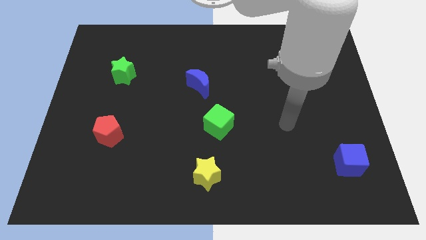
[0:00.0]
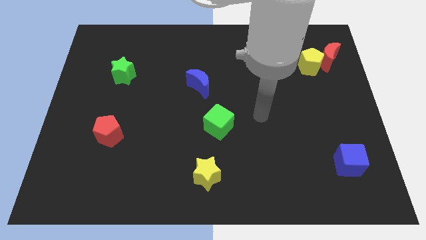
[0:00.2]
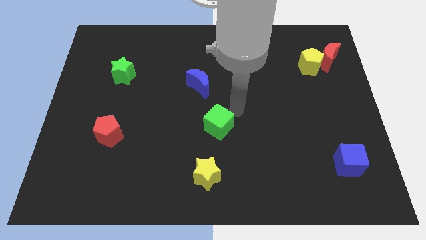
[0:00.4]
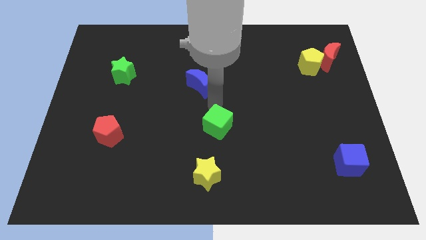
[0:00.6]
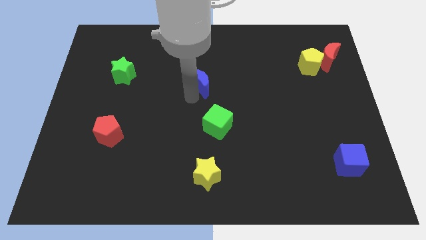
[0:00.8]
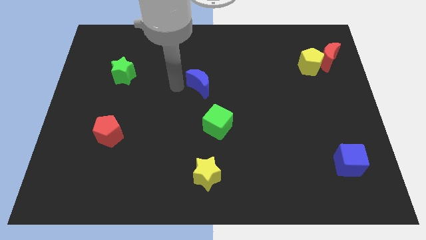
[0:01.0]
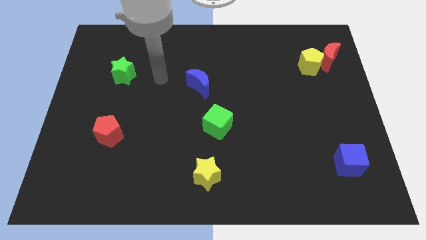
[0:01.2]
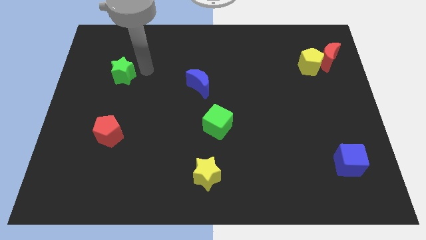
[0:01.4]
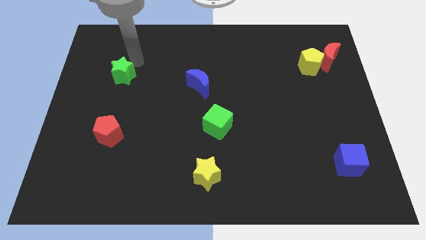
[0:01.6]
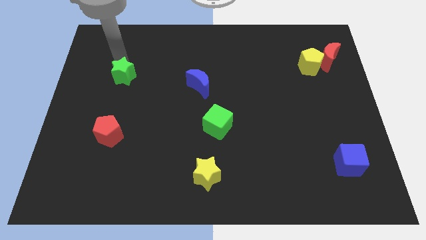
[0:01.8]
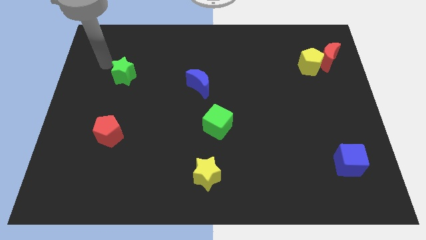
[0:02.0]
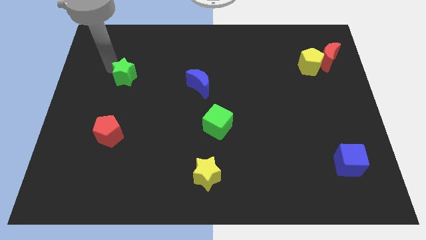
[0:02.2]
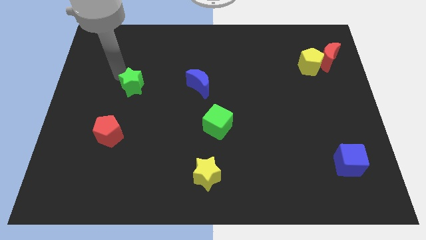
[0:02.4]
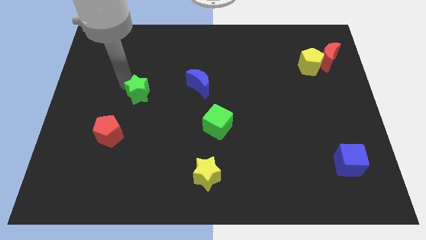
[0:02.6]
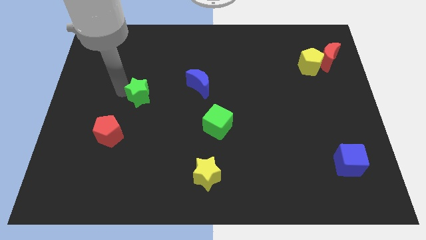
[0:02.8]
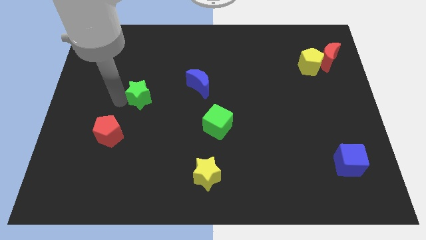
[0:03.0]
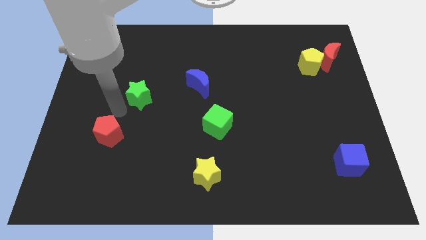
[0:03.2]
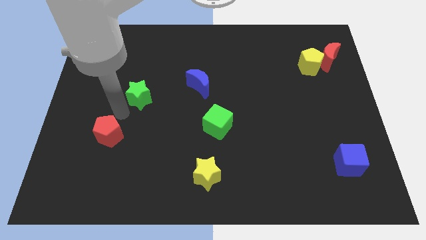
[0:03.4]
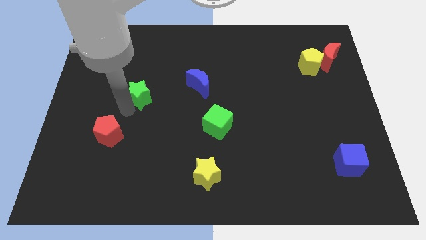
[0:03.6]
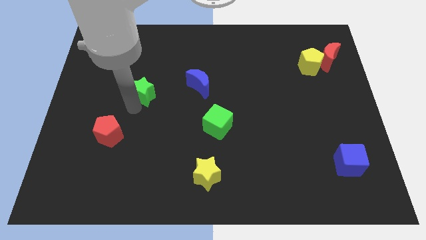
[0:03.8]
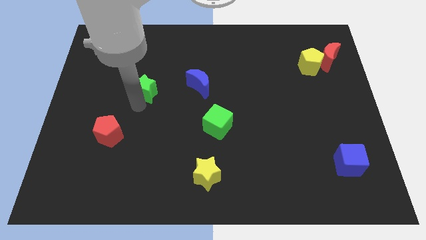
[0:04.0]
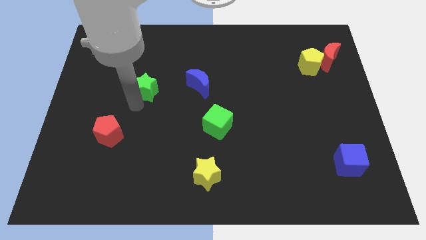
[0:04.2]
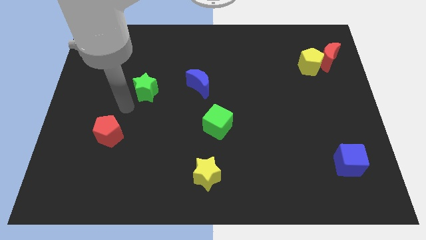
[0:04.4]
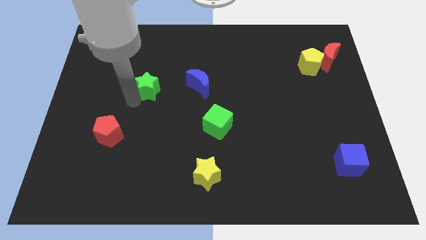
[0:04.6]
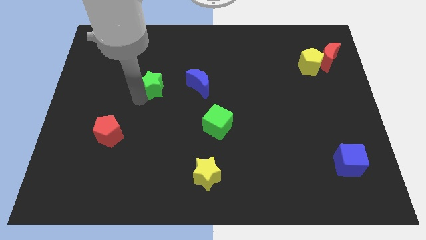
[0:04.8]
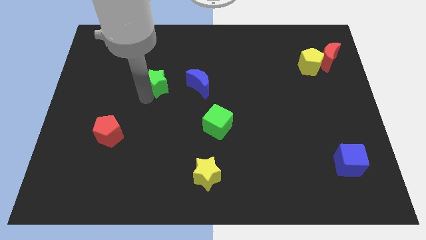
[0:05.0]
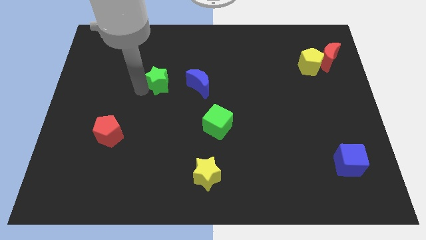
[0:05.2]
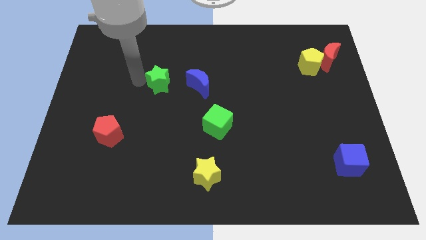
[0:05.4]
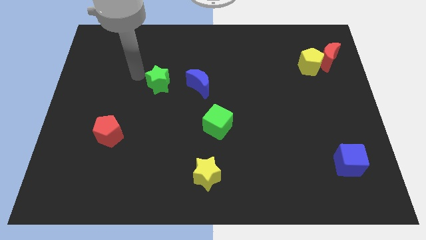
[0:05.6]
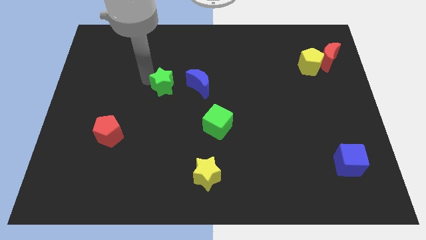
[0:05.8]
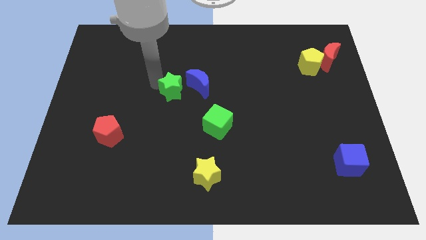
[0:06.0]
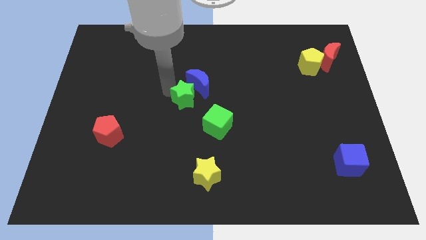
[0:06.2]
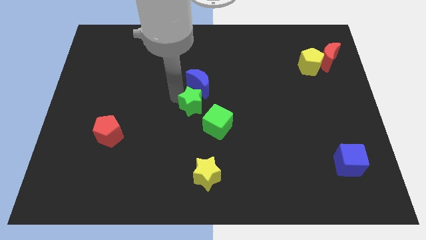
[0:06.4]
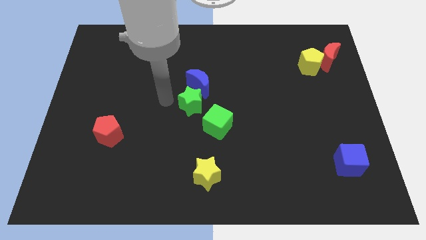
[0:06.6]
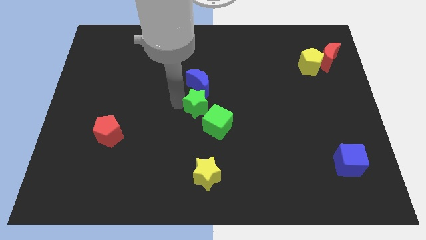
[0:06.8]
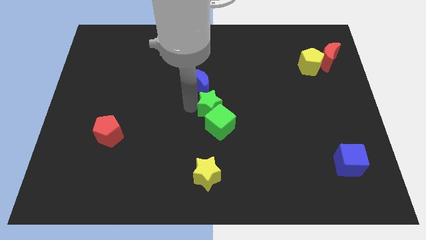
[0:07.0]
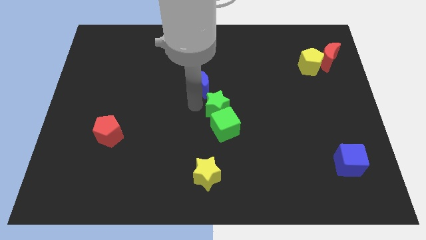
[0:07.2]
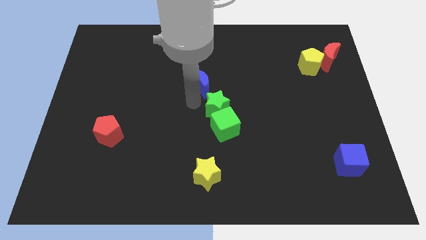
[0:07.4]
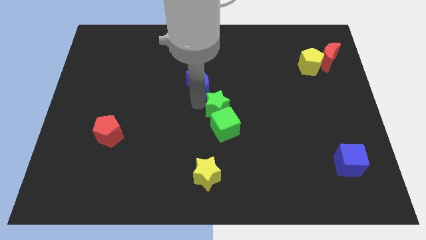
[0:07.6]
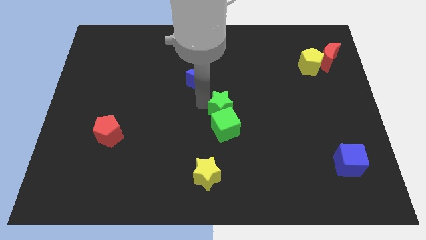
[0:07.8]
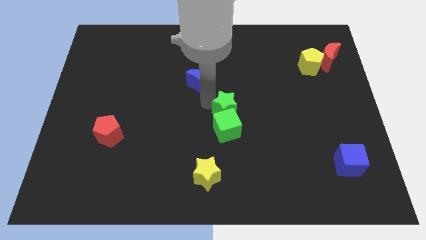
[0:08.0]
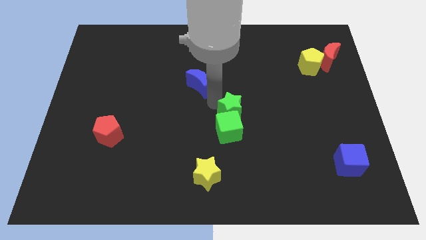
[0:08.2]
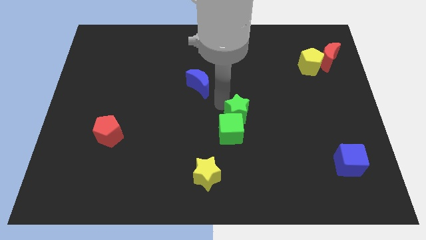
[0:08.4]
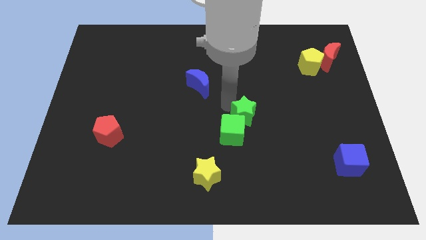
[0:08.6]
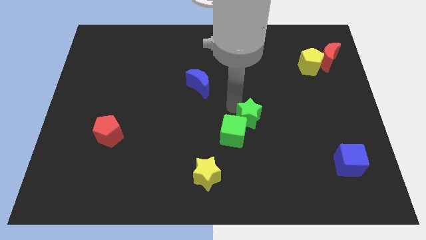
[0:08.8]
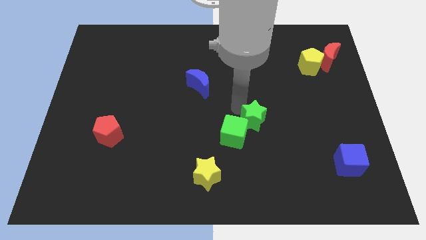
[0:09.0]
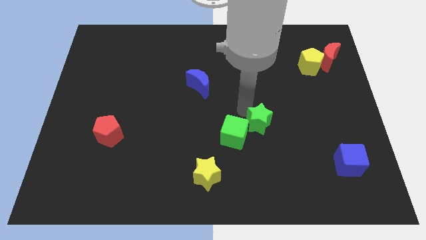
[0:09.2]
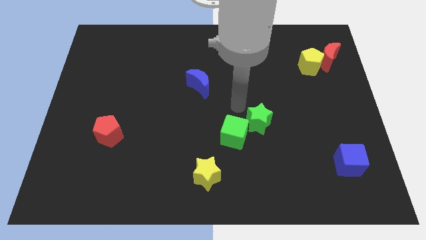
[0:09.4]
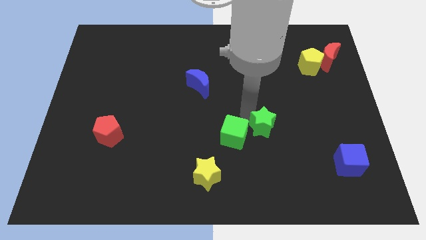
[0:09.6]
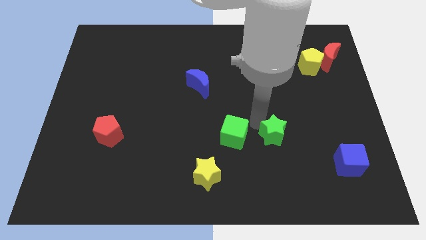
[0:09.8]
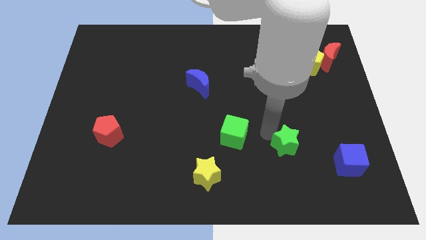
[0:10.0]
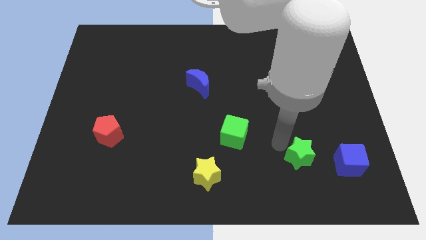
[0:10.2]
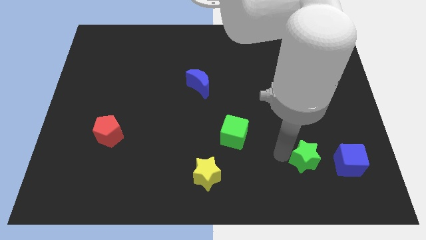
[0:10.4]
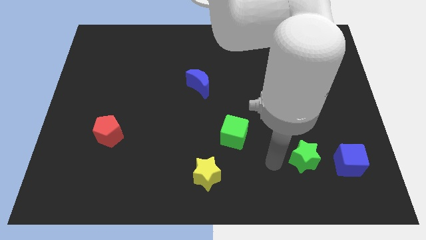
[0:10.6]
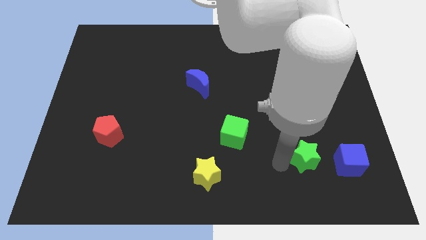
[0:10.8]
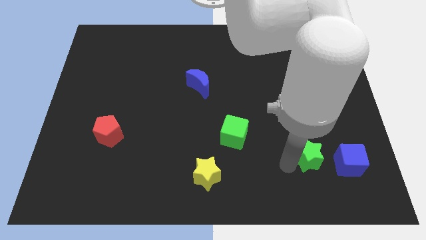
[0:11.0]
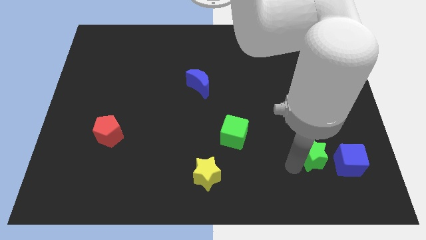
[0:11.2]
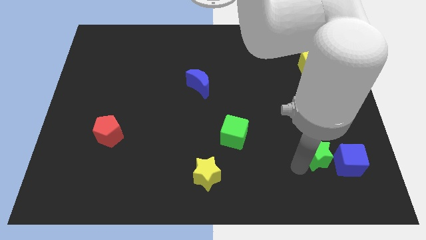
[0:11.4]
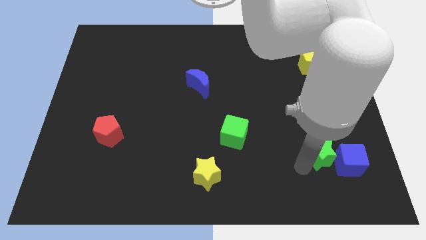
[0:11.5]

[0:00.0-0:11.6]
slide the green star close to the blue cube

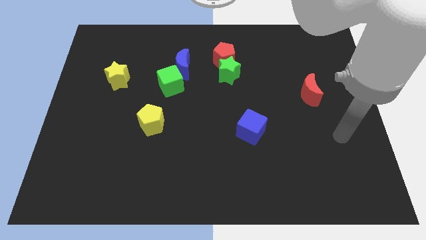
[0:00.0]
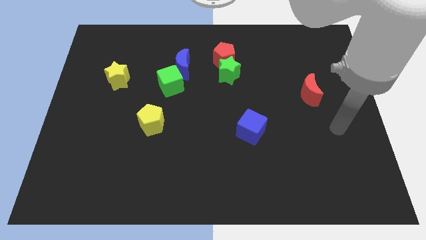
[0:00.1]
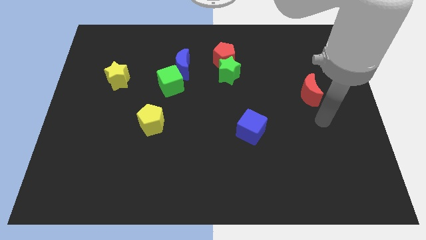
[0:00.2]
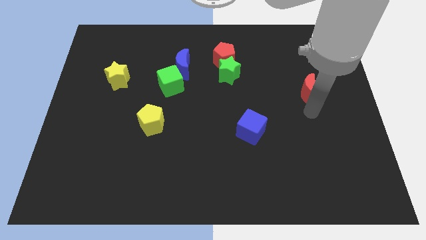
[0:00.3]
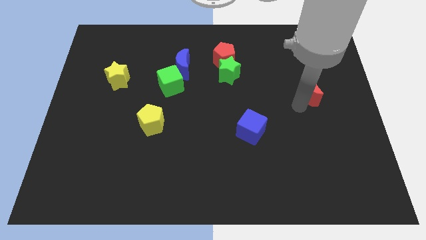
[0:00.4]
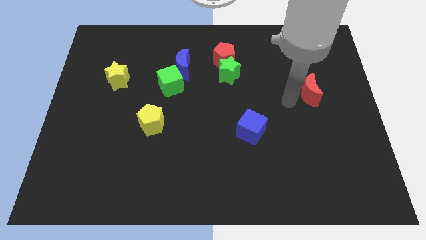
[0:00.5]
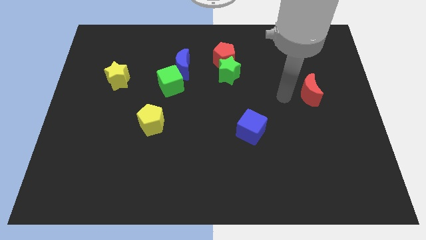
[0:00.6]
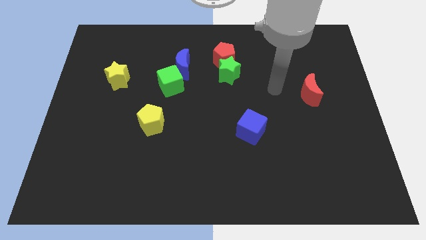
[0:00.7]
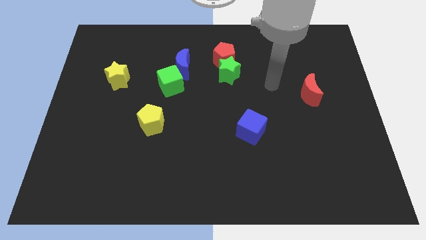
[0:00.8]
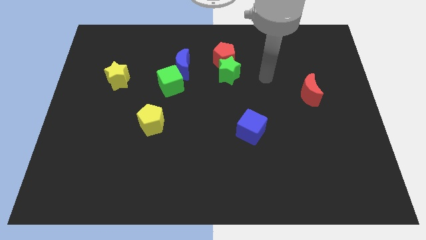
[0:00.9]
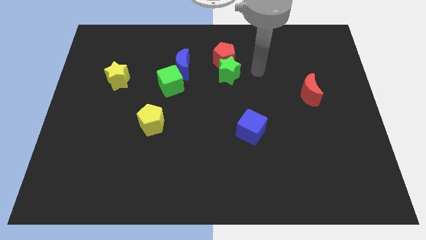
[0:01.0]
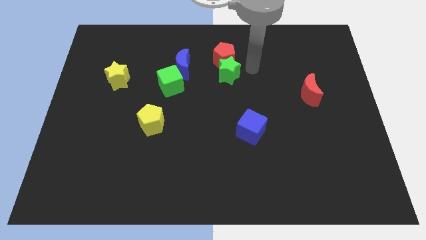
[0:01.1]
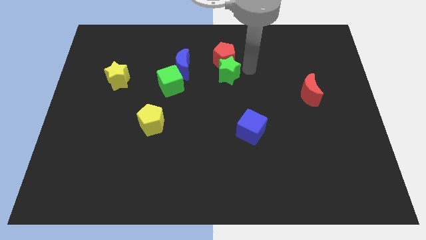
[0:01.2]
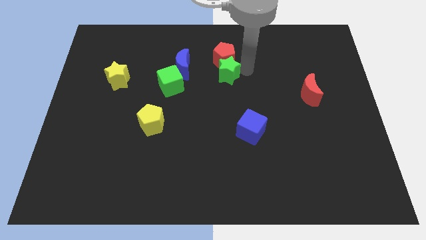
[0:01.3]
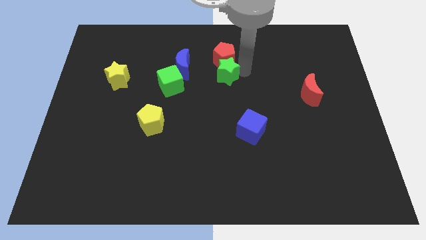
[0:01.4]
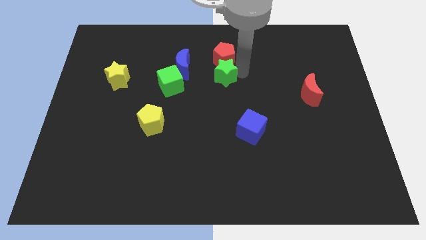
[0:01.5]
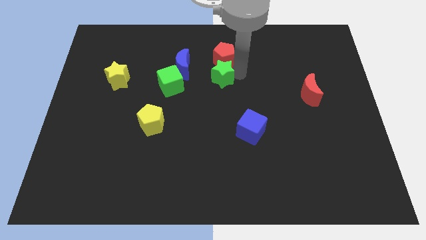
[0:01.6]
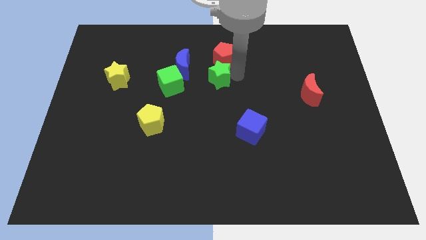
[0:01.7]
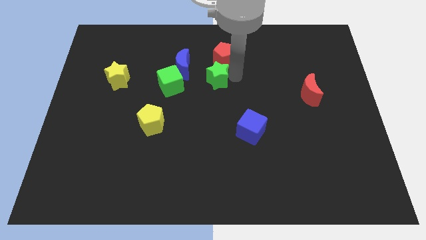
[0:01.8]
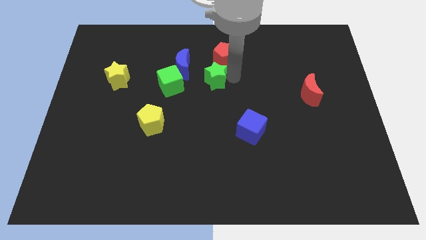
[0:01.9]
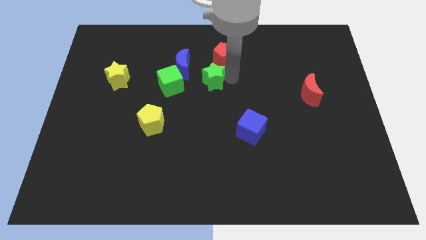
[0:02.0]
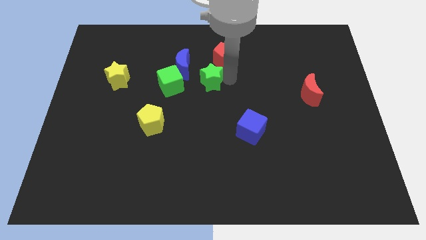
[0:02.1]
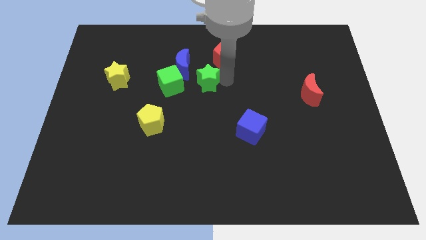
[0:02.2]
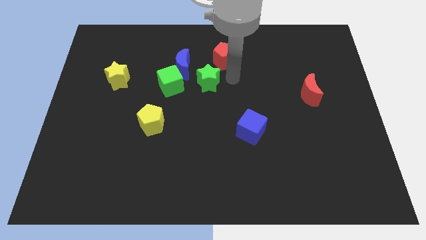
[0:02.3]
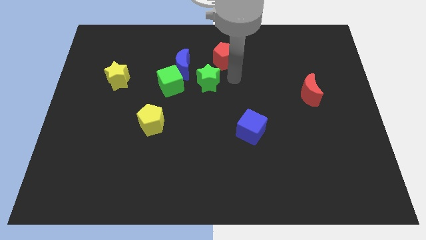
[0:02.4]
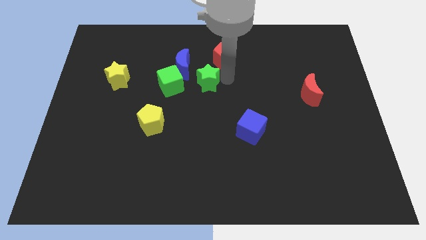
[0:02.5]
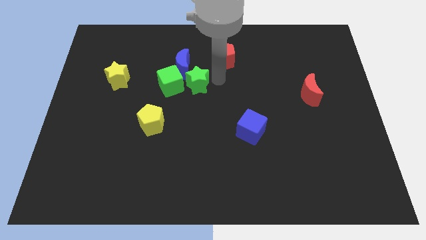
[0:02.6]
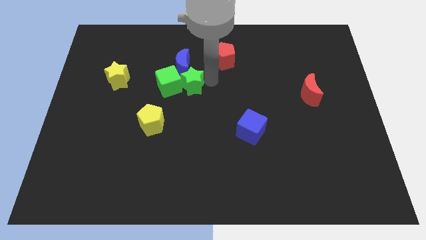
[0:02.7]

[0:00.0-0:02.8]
move the green star to the green cube
